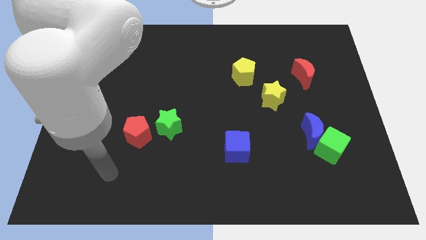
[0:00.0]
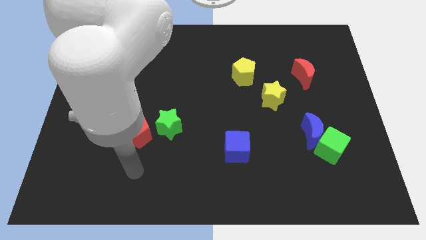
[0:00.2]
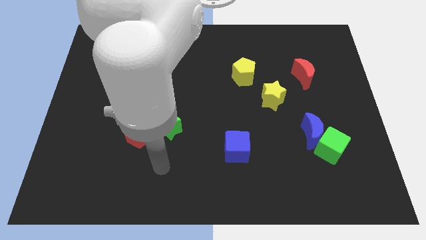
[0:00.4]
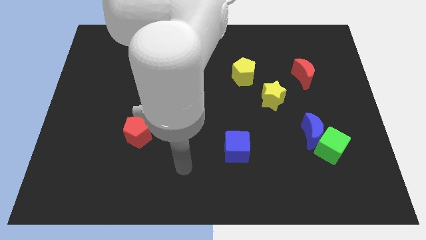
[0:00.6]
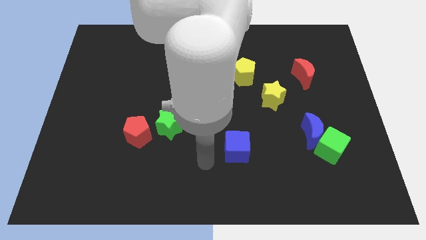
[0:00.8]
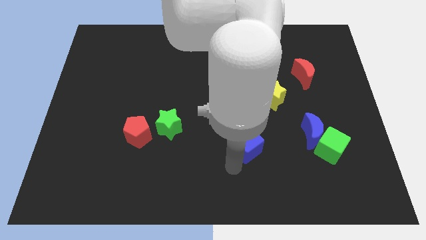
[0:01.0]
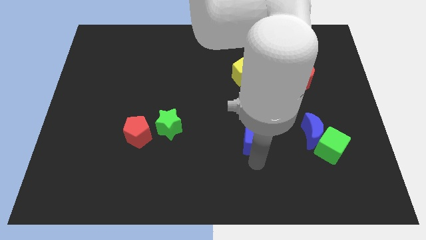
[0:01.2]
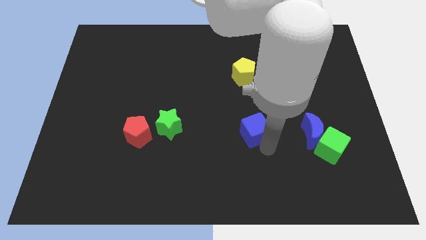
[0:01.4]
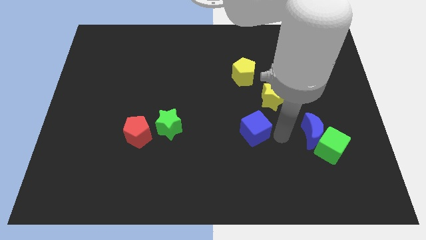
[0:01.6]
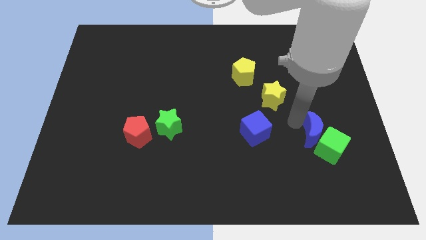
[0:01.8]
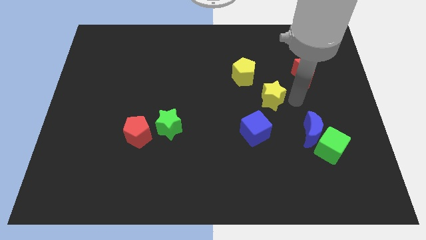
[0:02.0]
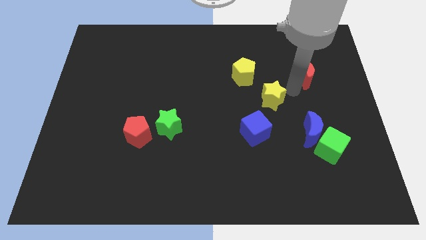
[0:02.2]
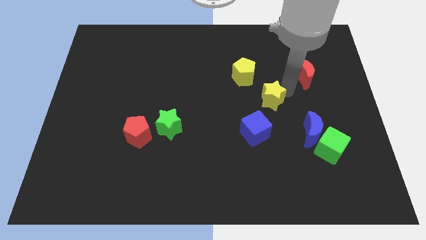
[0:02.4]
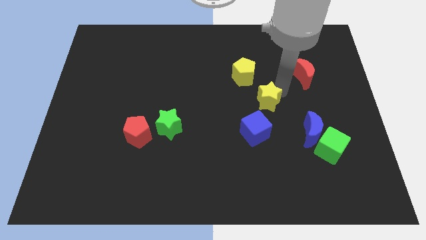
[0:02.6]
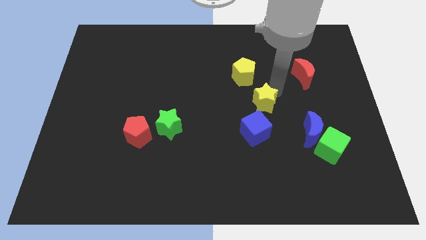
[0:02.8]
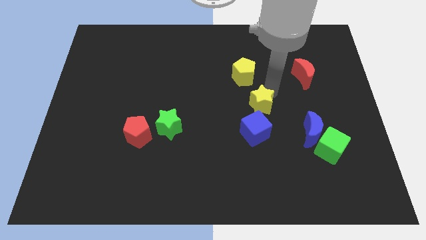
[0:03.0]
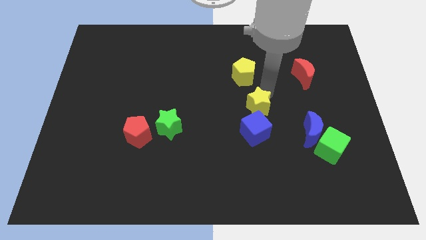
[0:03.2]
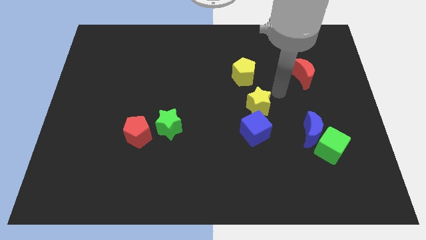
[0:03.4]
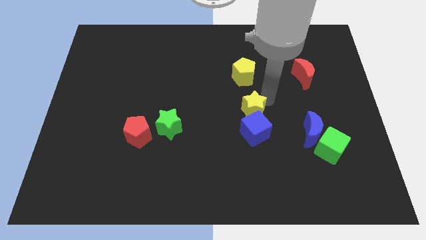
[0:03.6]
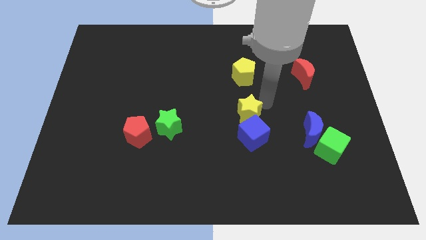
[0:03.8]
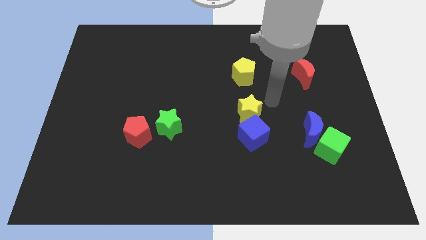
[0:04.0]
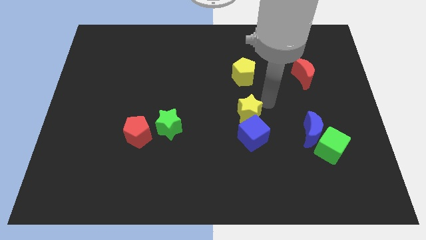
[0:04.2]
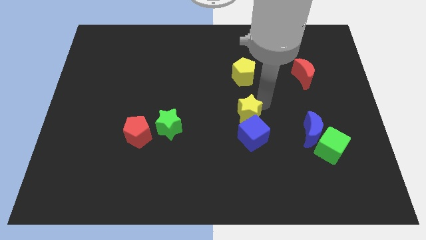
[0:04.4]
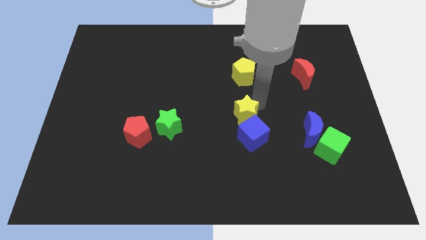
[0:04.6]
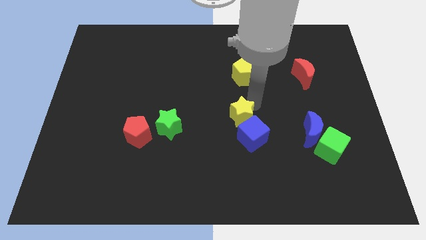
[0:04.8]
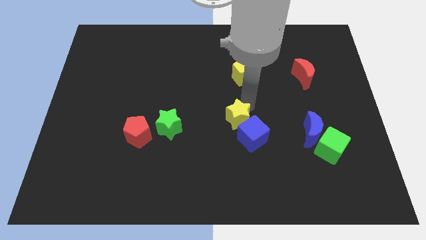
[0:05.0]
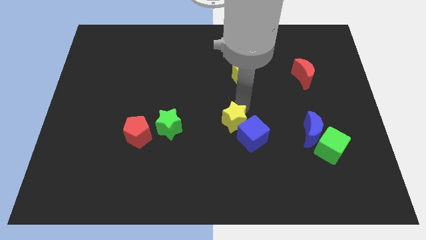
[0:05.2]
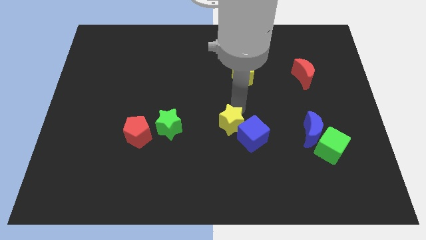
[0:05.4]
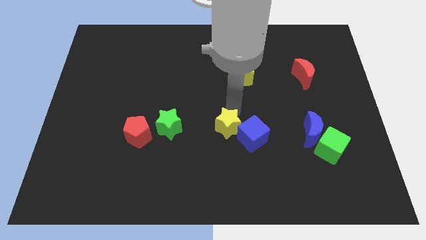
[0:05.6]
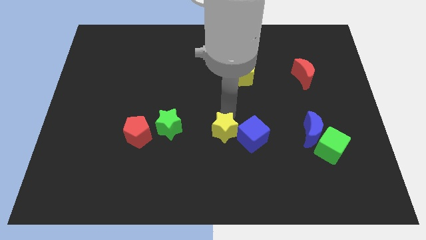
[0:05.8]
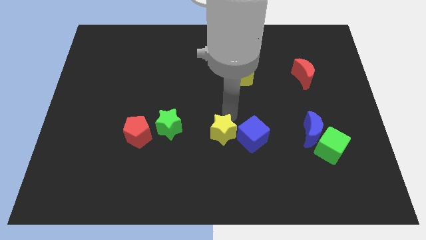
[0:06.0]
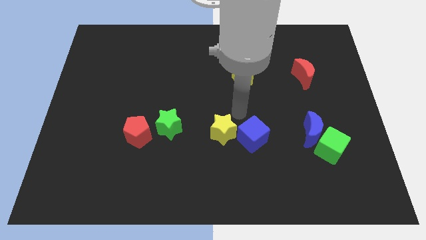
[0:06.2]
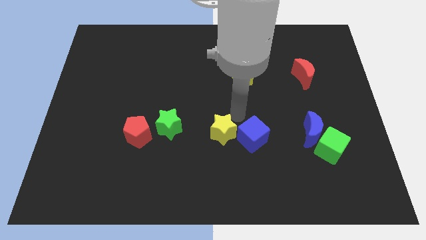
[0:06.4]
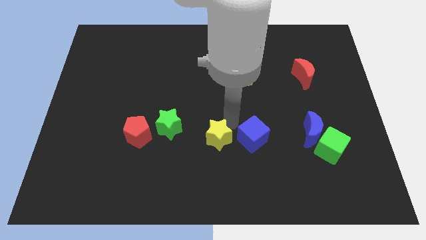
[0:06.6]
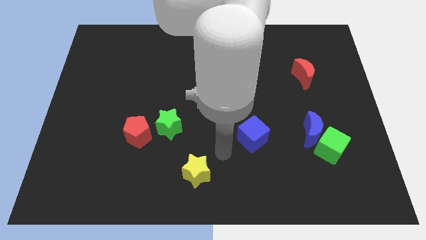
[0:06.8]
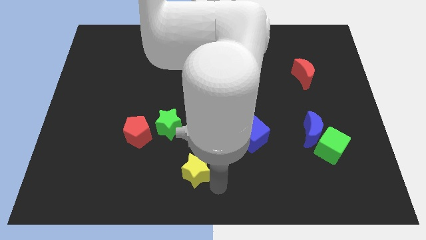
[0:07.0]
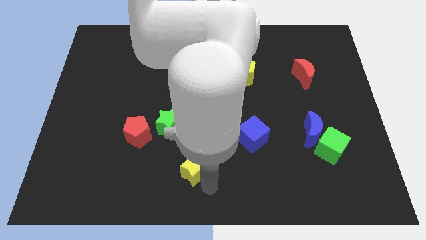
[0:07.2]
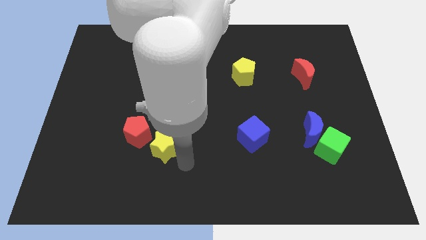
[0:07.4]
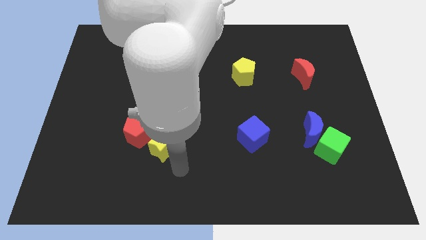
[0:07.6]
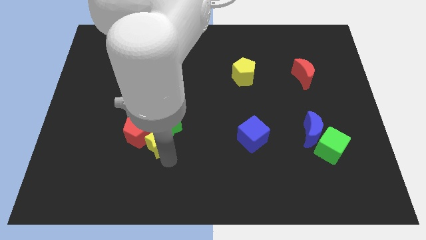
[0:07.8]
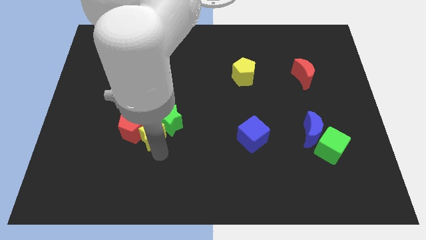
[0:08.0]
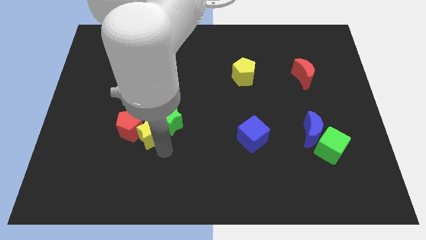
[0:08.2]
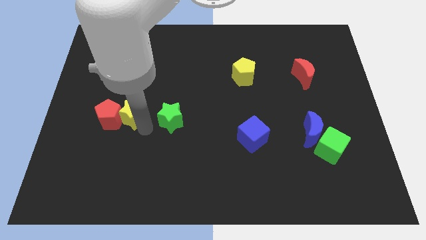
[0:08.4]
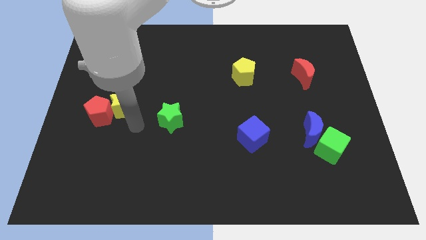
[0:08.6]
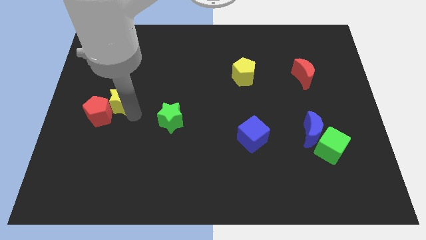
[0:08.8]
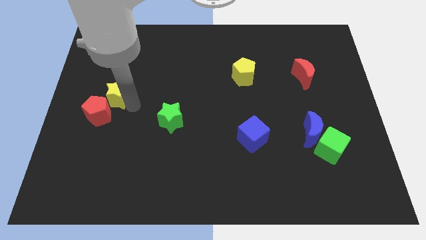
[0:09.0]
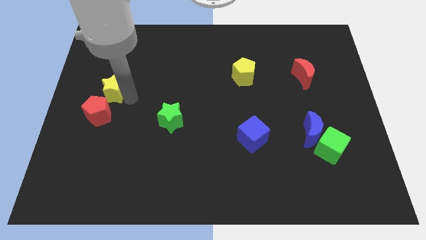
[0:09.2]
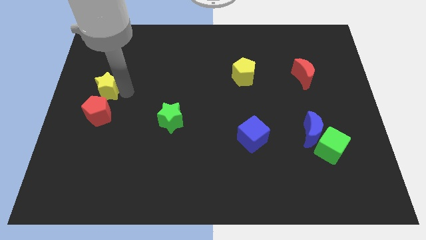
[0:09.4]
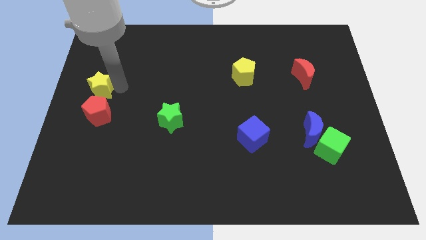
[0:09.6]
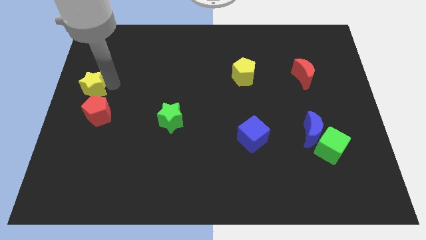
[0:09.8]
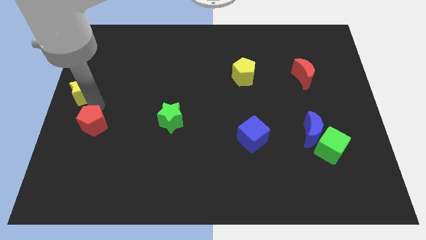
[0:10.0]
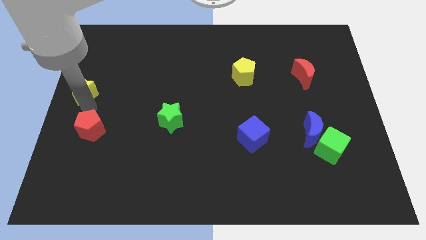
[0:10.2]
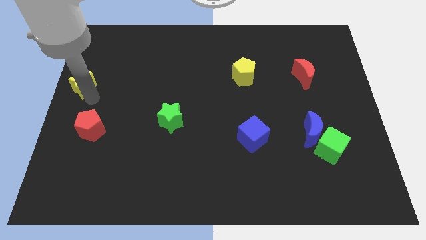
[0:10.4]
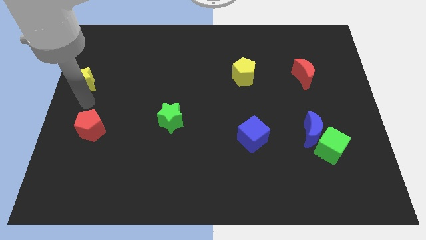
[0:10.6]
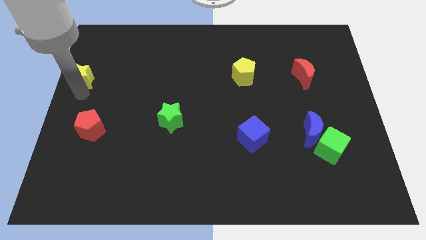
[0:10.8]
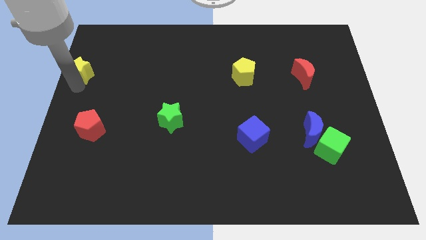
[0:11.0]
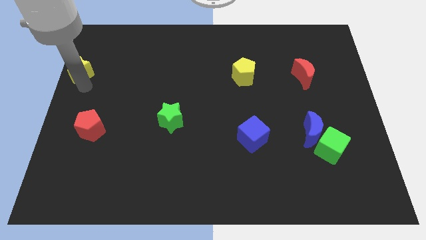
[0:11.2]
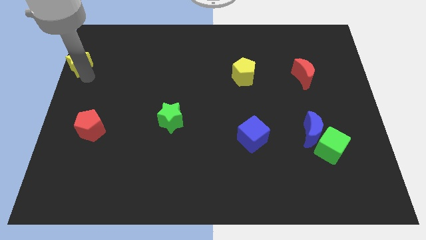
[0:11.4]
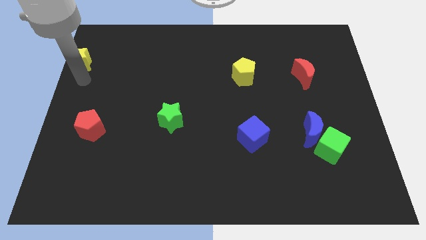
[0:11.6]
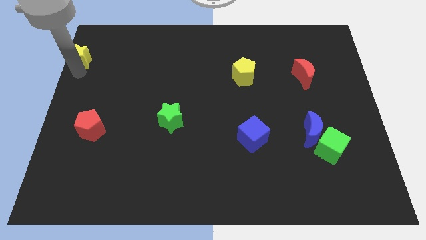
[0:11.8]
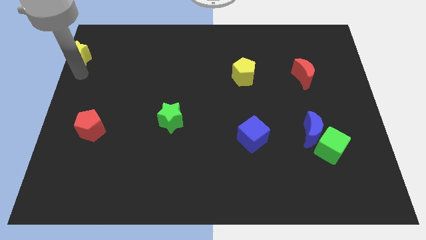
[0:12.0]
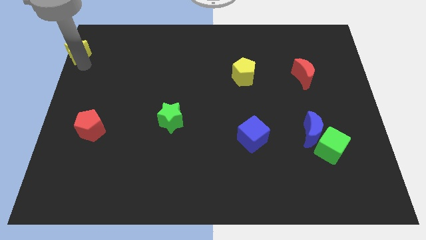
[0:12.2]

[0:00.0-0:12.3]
put the yellow star to the upper left corner
